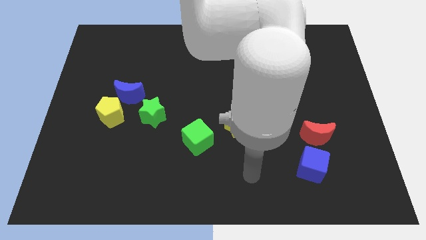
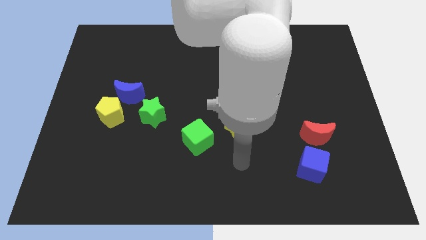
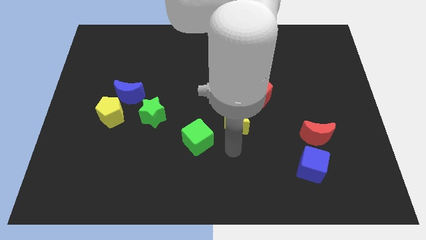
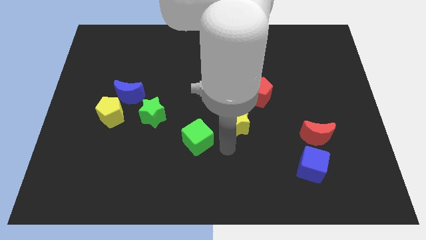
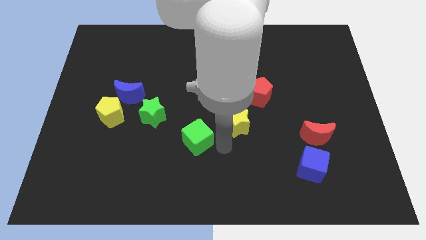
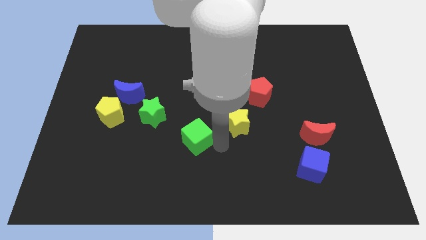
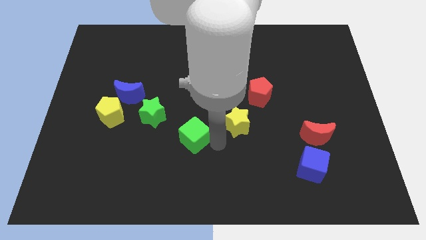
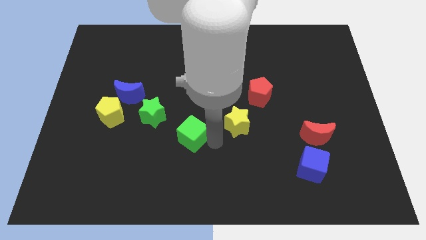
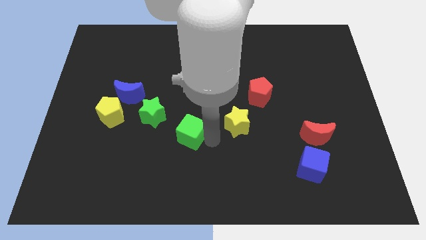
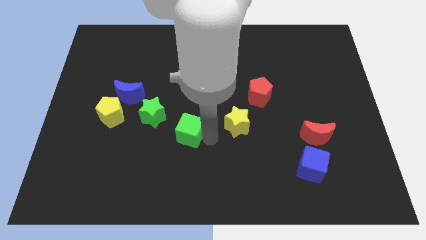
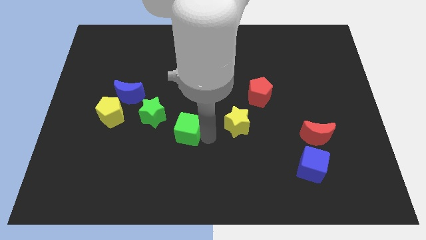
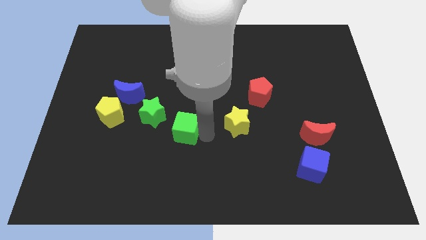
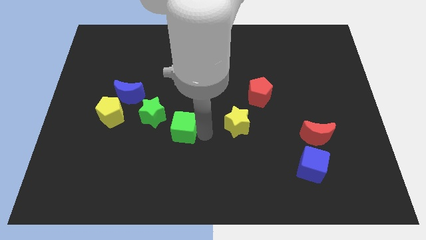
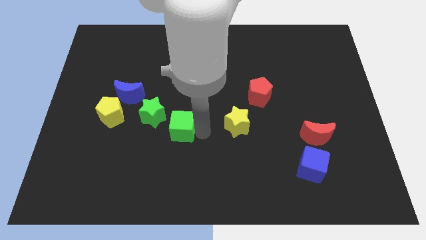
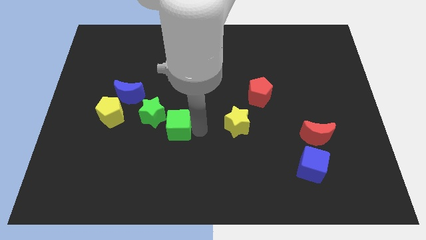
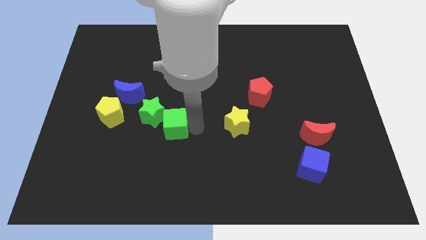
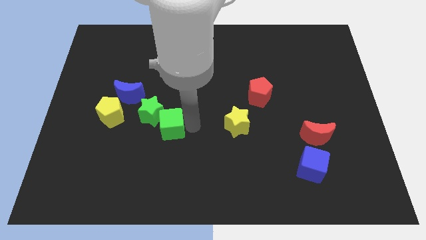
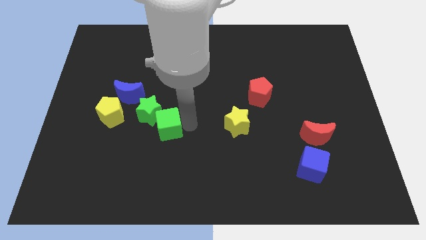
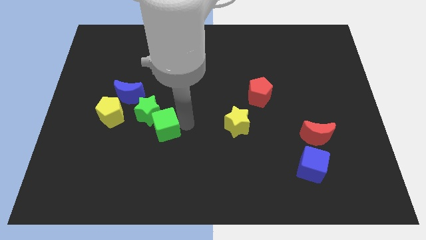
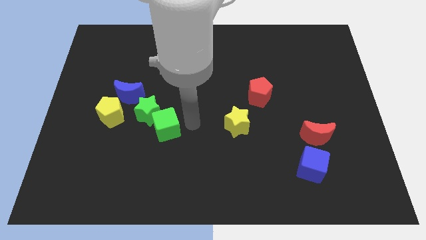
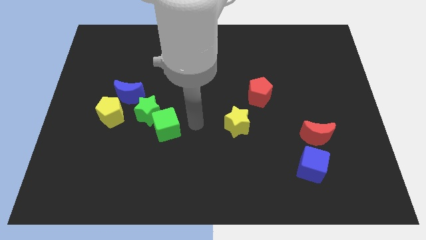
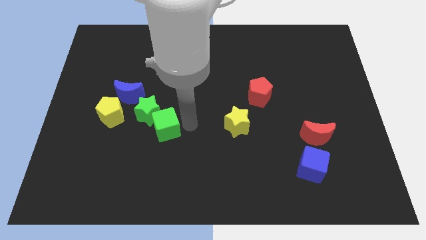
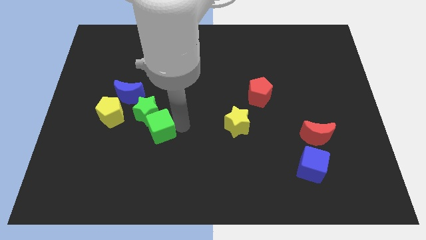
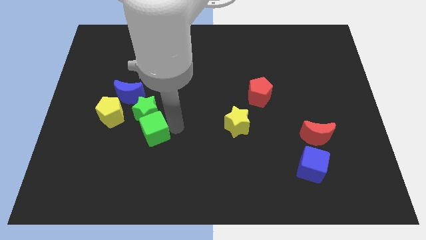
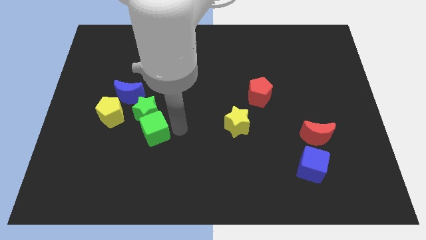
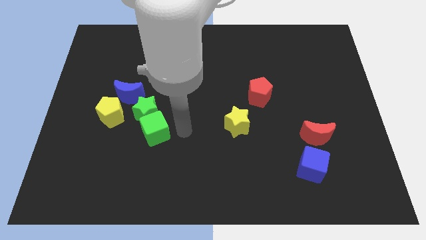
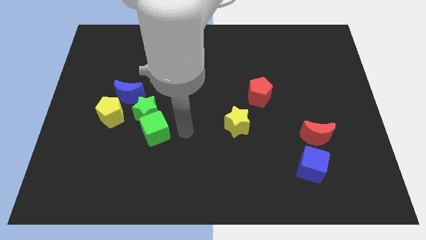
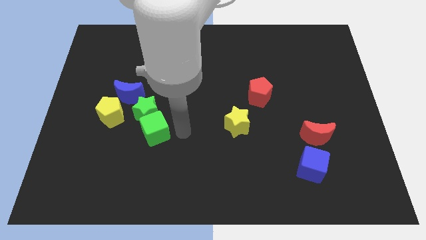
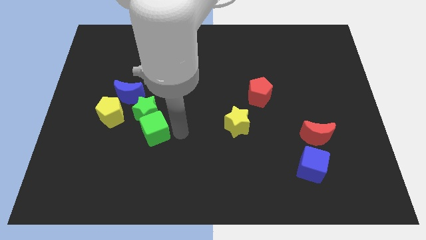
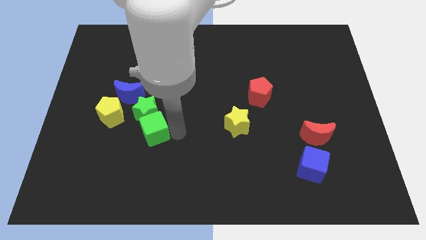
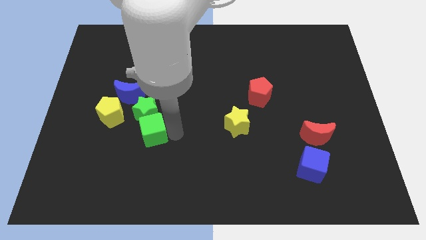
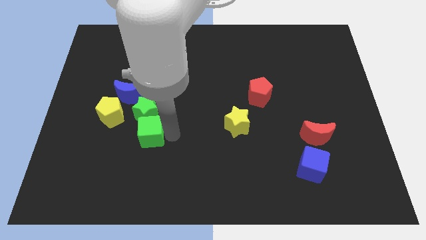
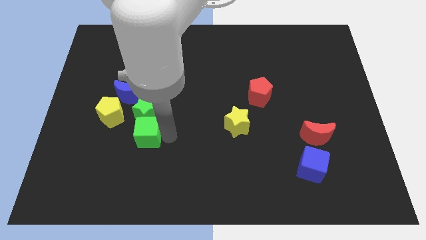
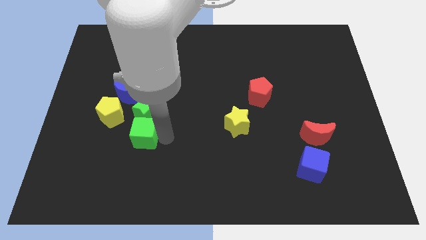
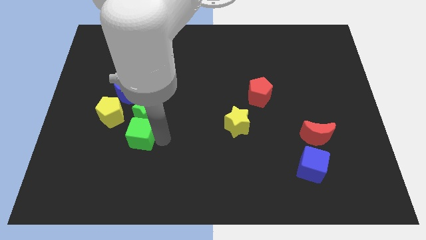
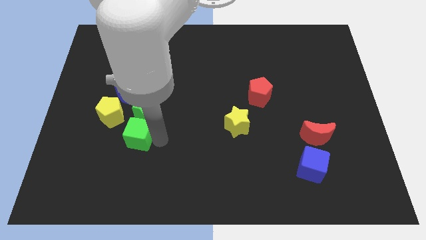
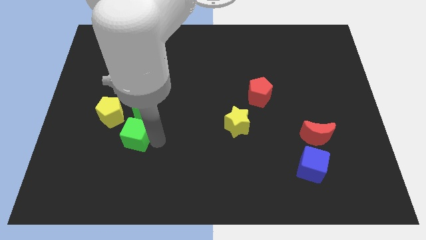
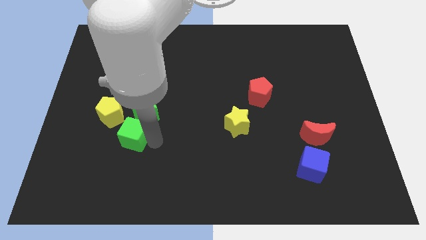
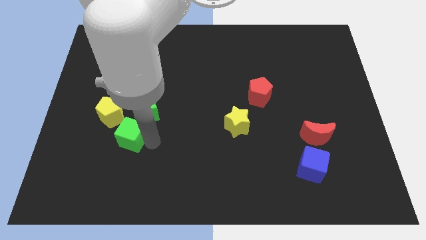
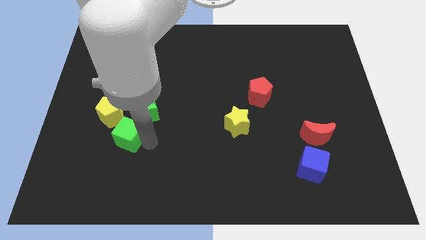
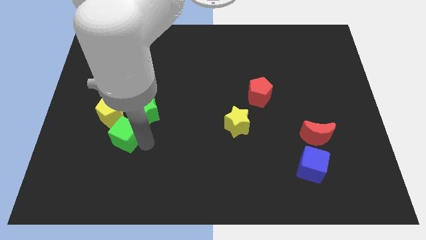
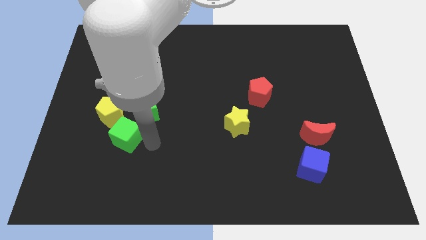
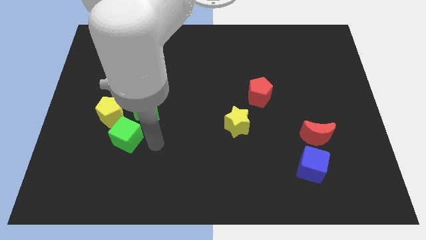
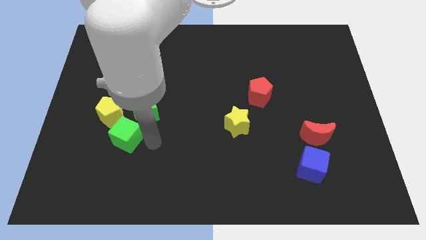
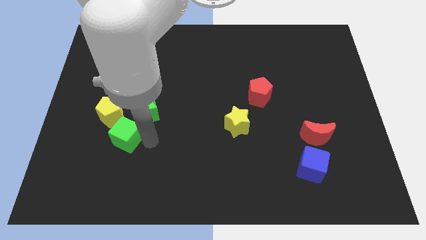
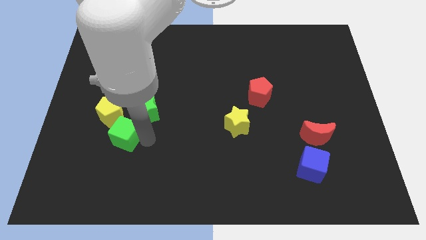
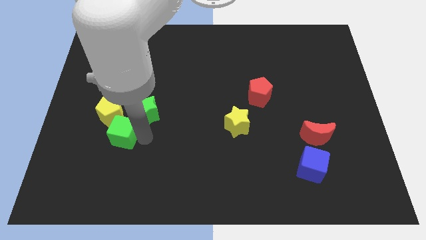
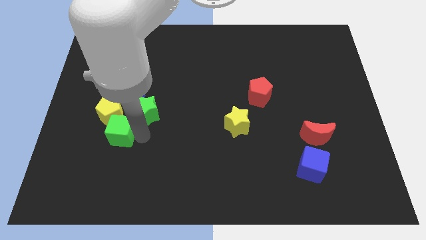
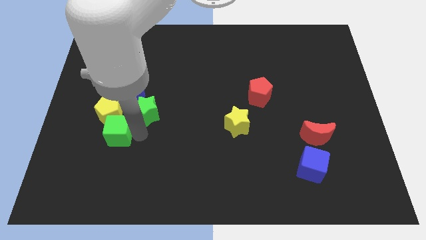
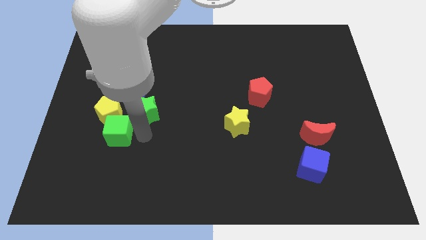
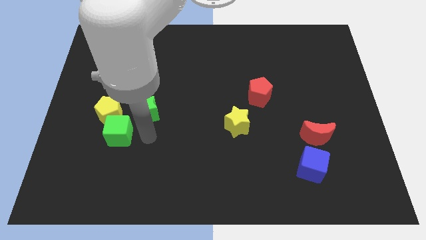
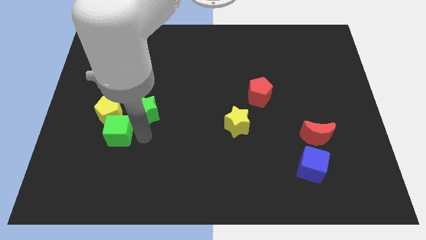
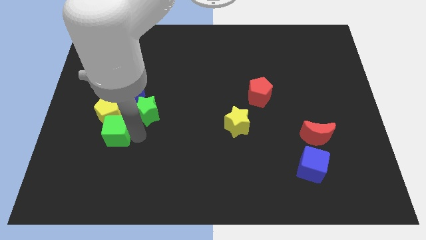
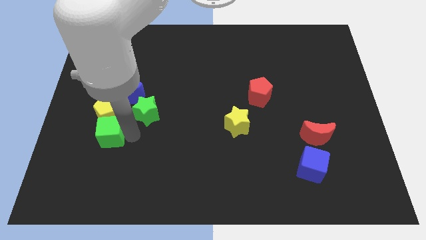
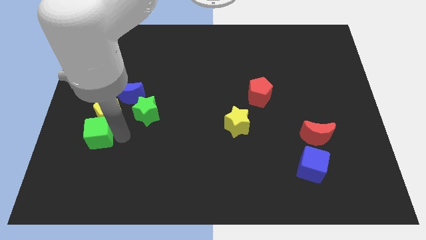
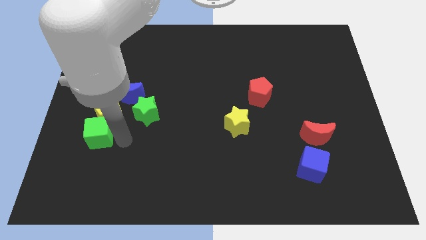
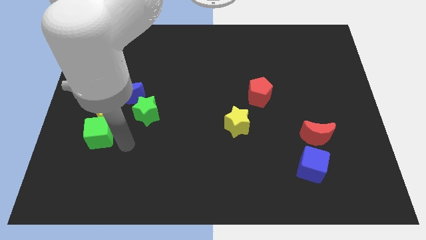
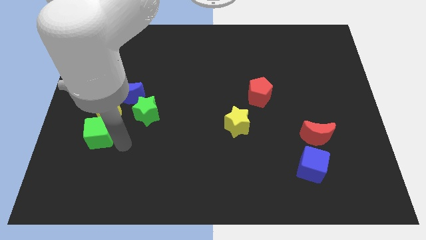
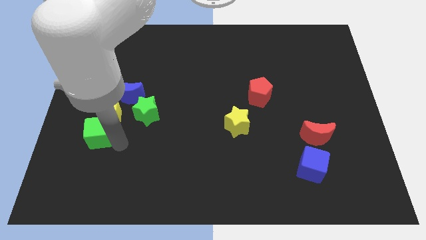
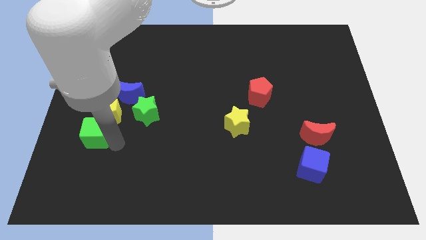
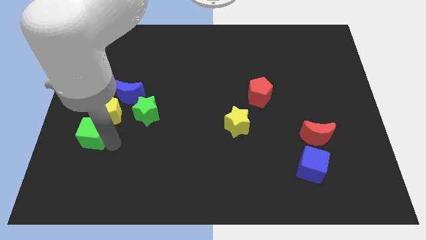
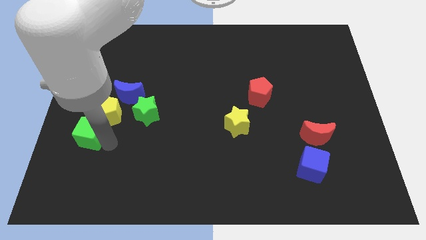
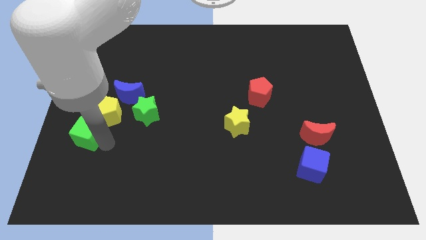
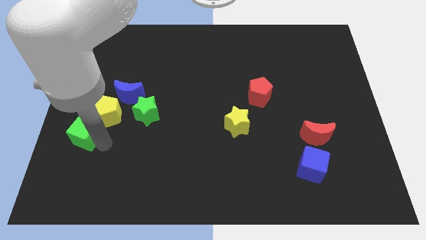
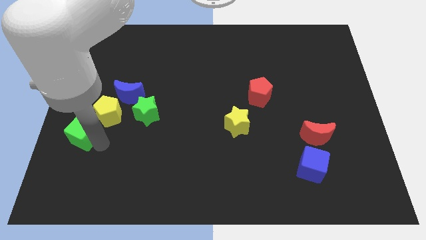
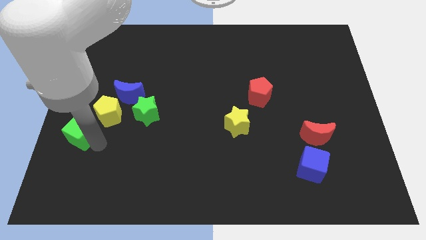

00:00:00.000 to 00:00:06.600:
move the green cube to the center left
